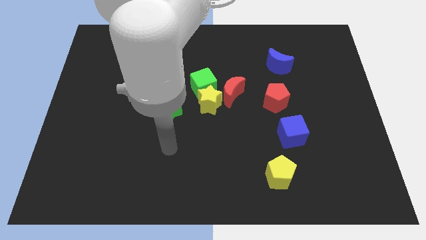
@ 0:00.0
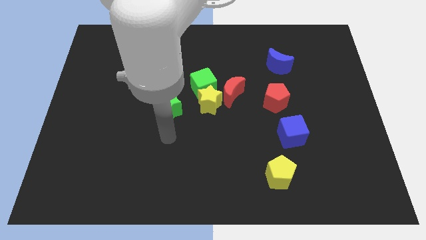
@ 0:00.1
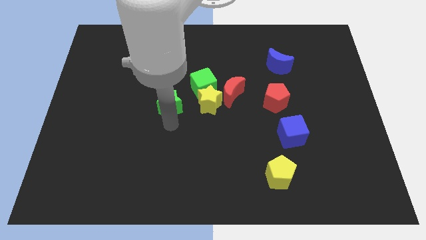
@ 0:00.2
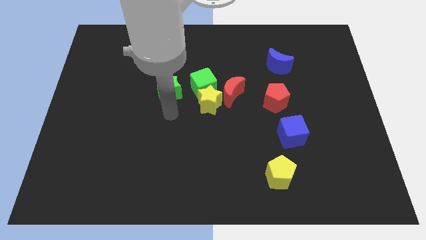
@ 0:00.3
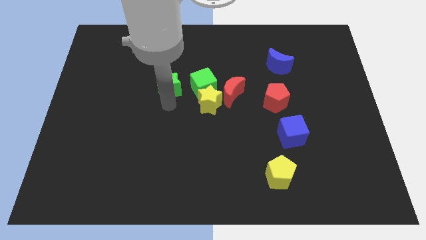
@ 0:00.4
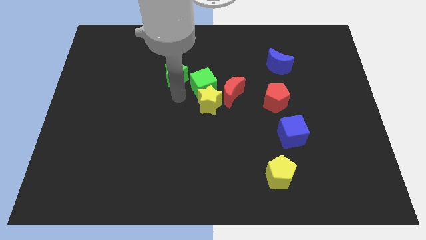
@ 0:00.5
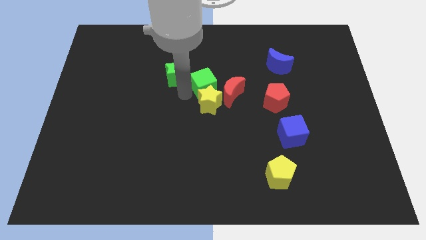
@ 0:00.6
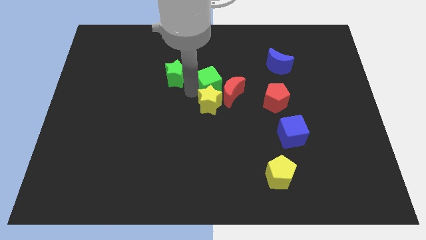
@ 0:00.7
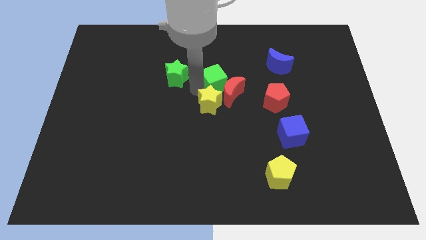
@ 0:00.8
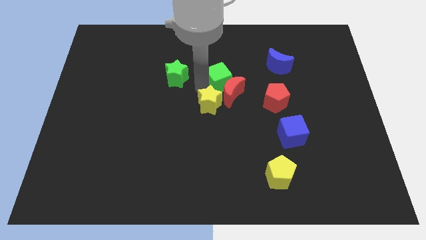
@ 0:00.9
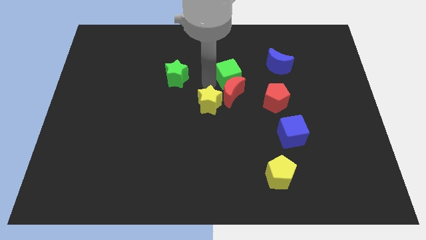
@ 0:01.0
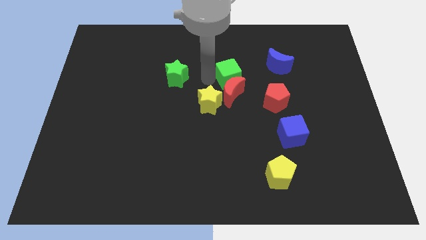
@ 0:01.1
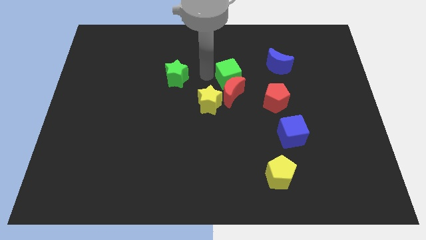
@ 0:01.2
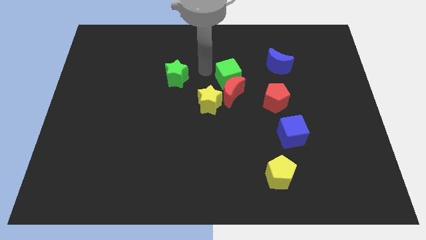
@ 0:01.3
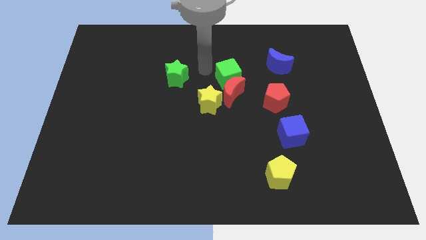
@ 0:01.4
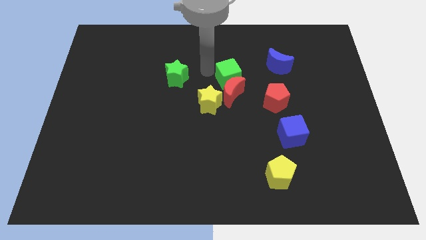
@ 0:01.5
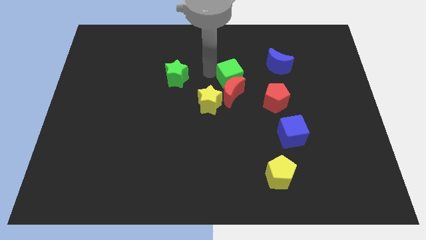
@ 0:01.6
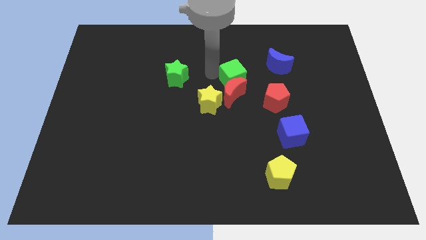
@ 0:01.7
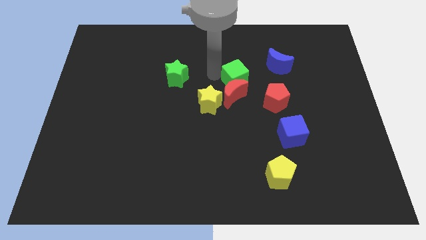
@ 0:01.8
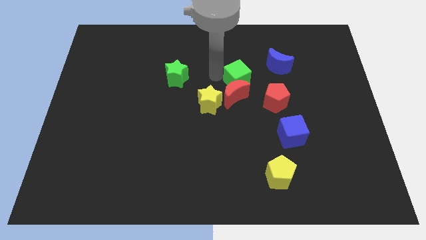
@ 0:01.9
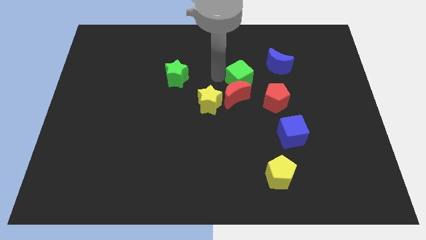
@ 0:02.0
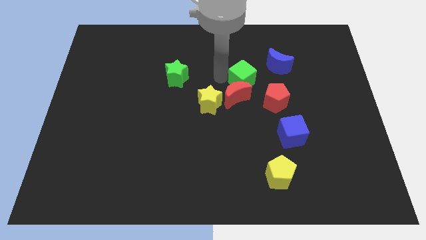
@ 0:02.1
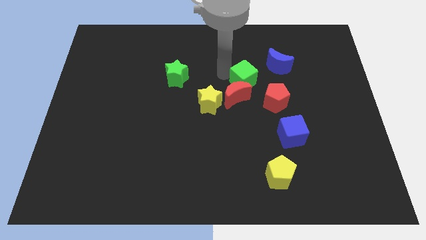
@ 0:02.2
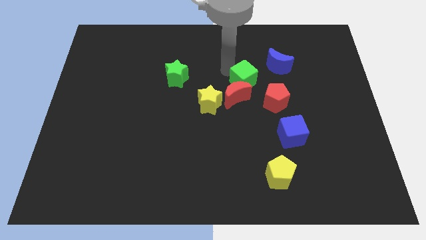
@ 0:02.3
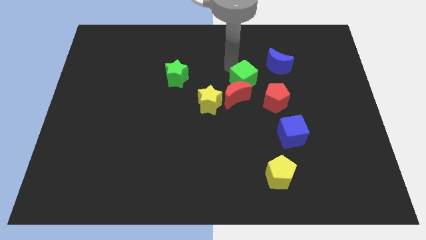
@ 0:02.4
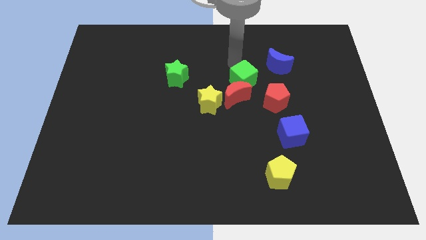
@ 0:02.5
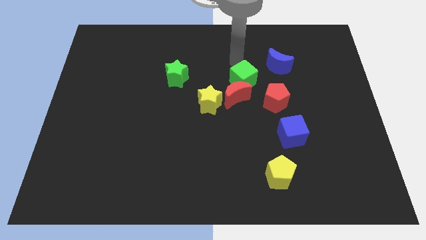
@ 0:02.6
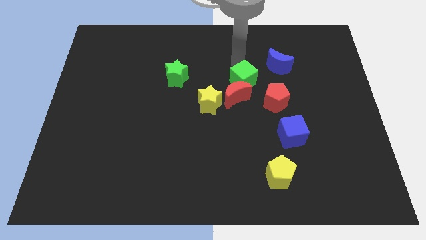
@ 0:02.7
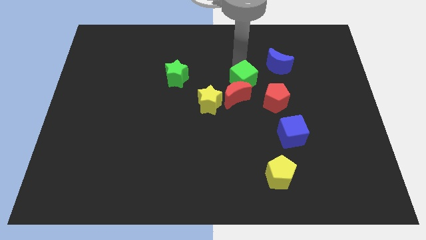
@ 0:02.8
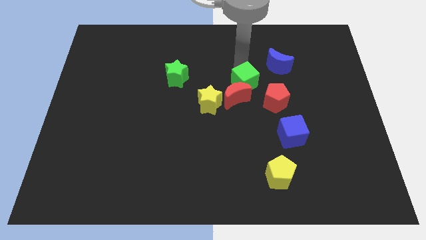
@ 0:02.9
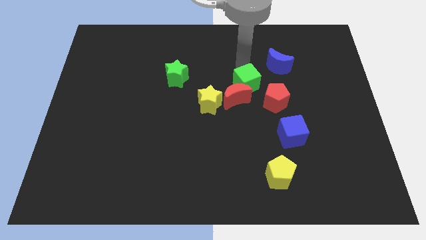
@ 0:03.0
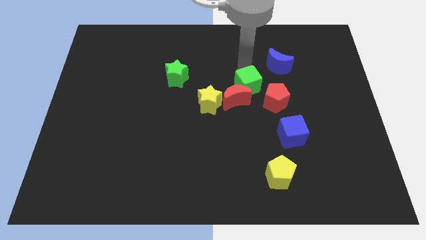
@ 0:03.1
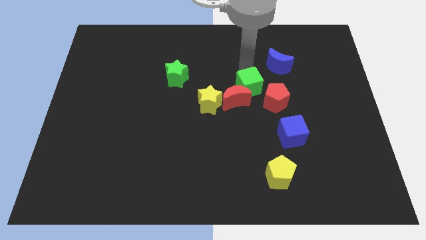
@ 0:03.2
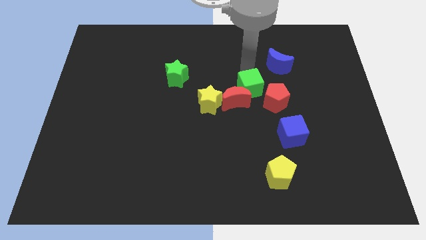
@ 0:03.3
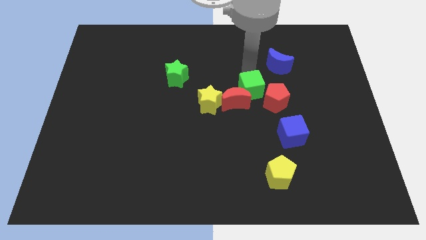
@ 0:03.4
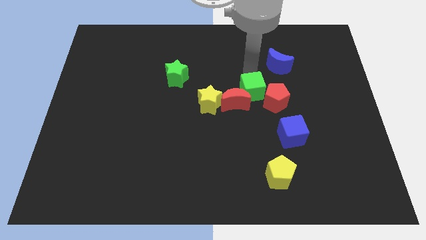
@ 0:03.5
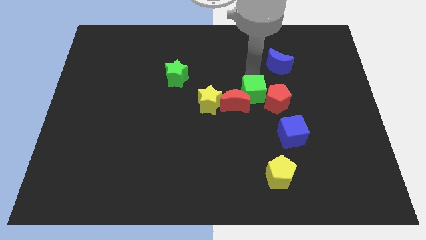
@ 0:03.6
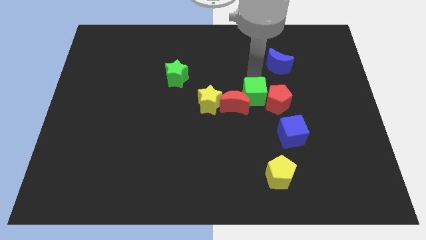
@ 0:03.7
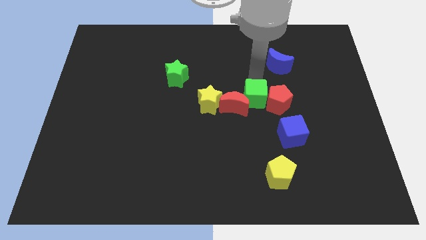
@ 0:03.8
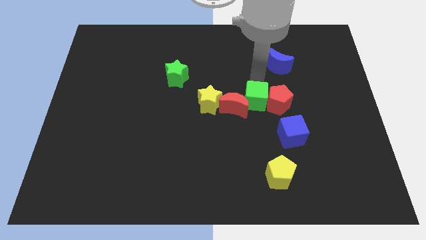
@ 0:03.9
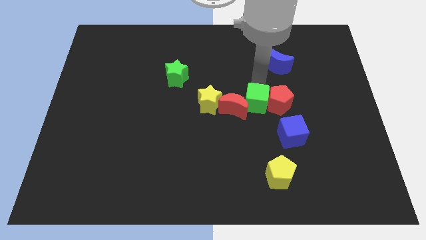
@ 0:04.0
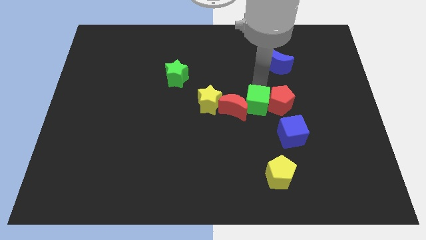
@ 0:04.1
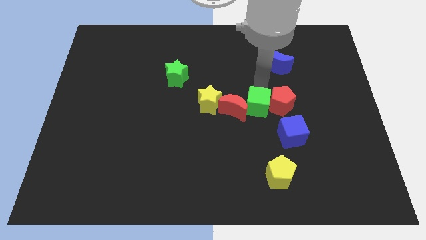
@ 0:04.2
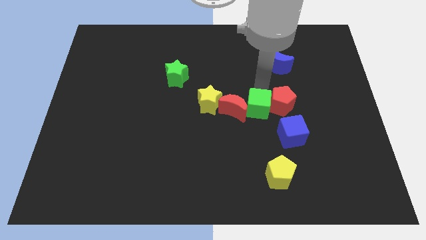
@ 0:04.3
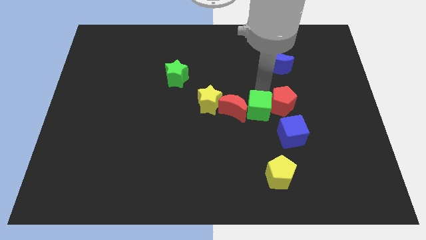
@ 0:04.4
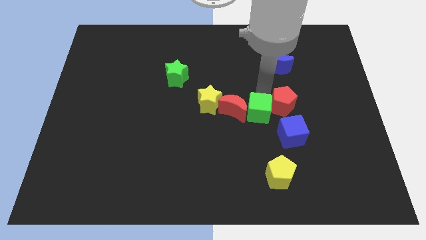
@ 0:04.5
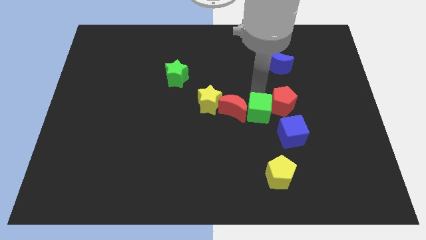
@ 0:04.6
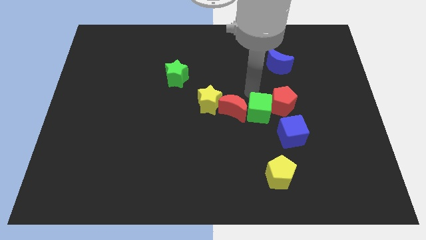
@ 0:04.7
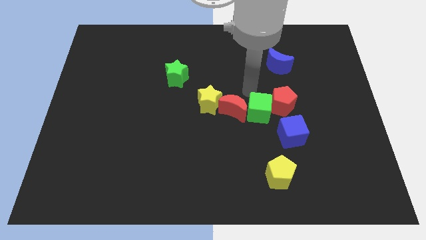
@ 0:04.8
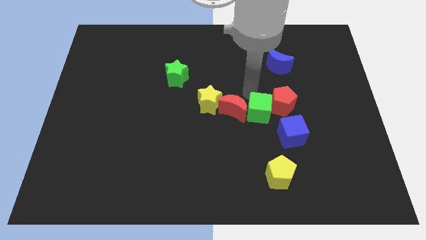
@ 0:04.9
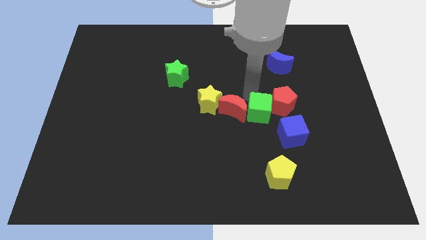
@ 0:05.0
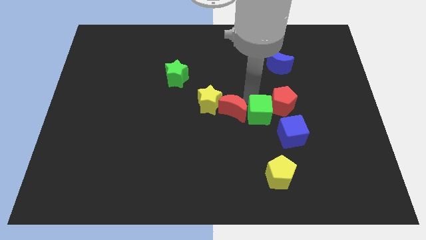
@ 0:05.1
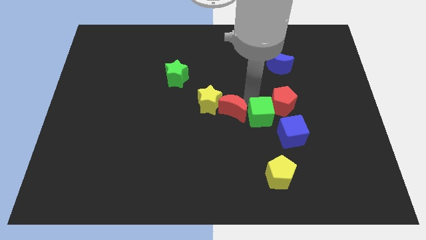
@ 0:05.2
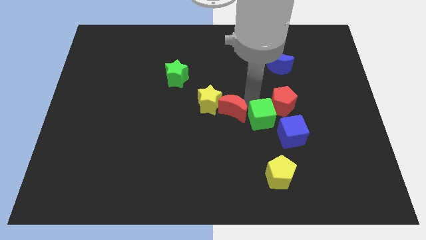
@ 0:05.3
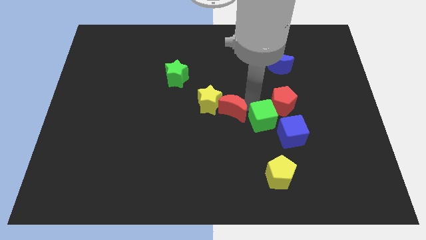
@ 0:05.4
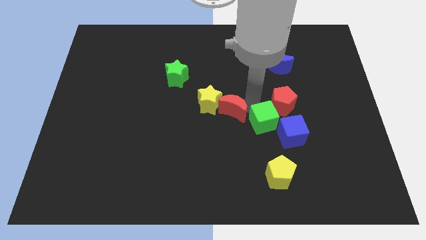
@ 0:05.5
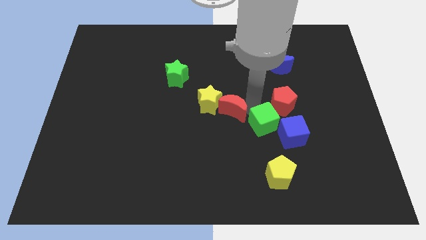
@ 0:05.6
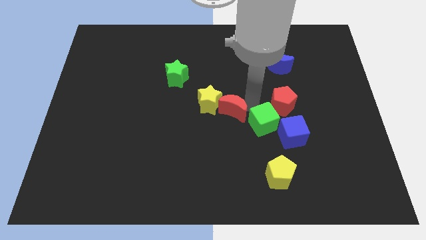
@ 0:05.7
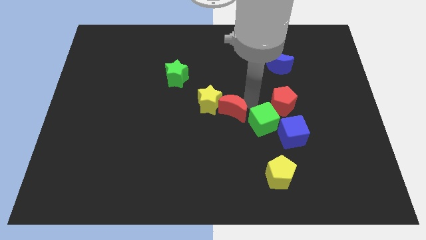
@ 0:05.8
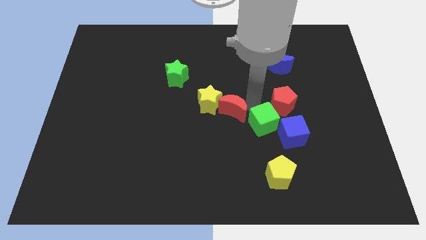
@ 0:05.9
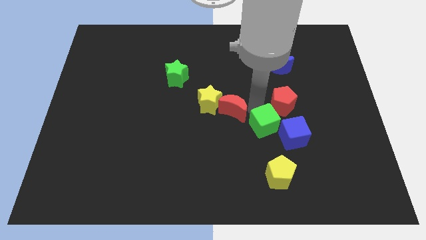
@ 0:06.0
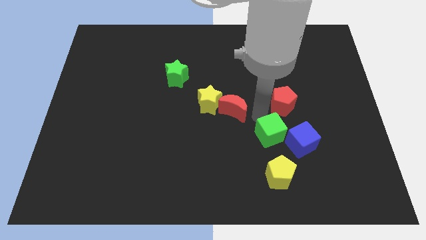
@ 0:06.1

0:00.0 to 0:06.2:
move the green cube downwards and right diagonally

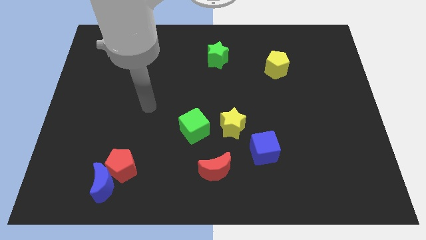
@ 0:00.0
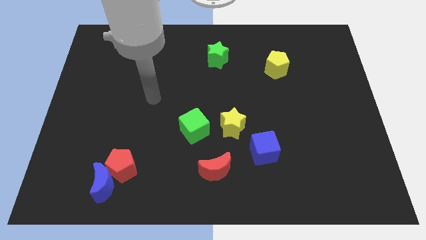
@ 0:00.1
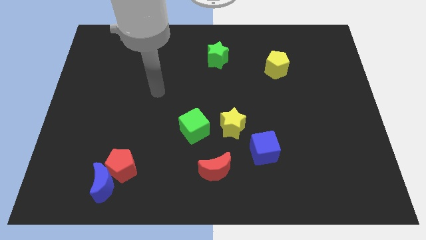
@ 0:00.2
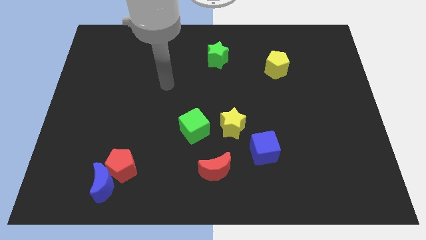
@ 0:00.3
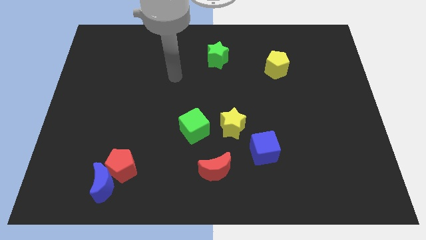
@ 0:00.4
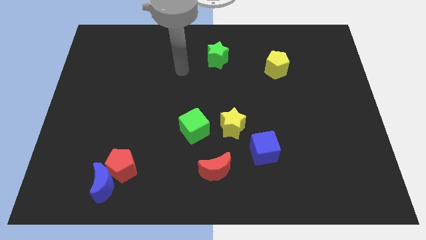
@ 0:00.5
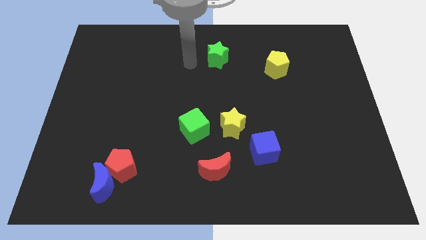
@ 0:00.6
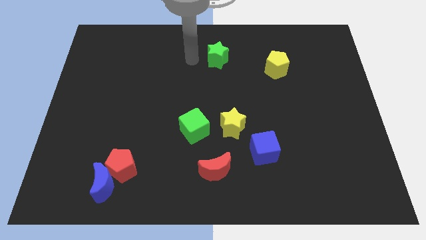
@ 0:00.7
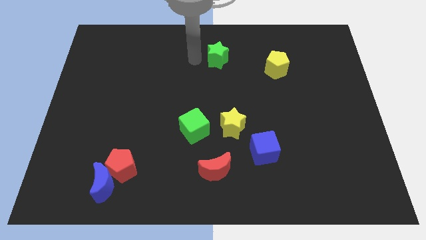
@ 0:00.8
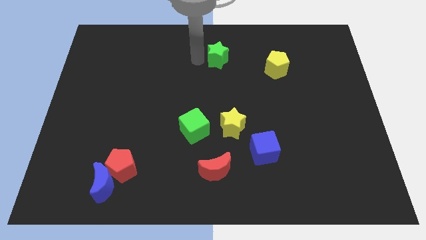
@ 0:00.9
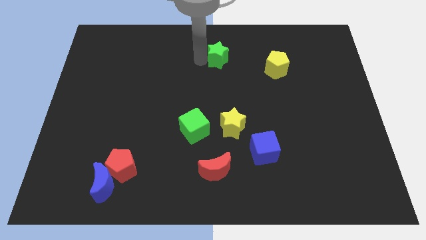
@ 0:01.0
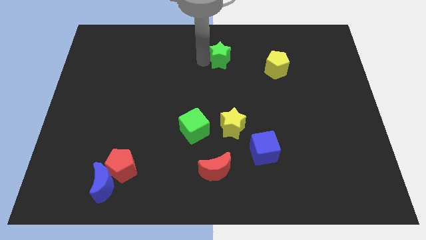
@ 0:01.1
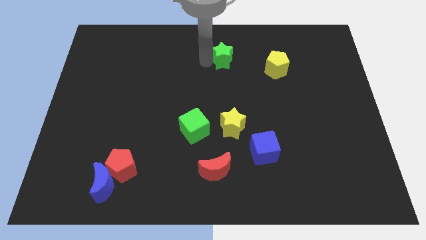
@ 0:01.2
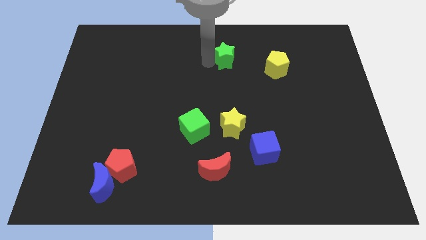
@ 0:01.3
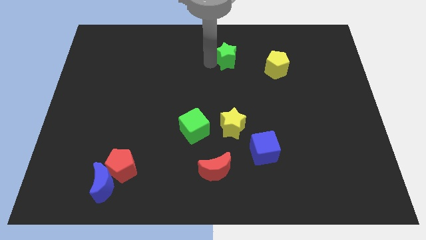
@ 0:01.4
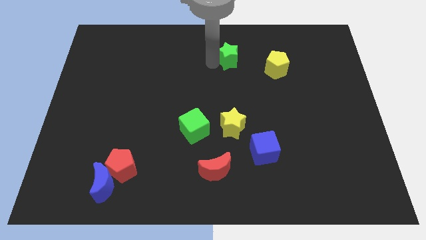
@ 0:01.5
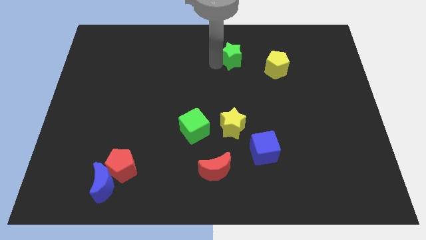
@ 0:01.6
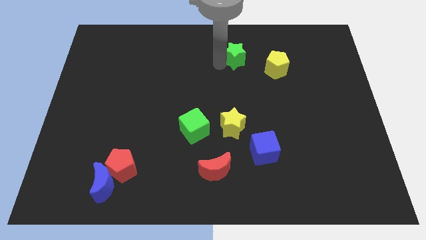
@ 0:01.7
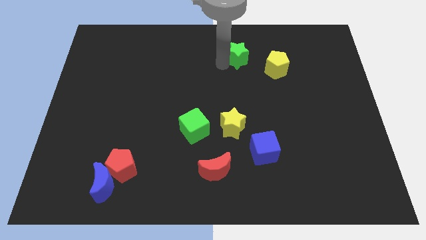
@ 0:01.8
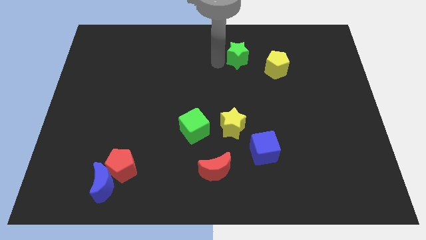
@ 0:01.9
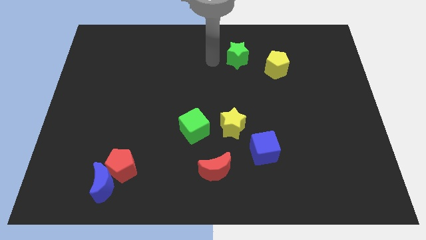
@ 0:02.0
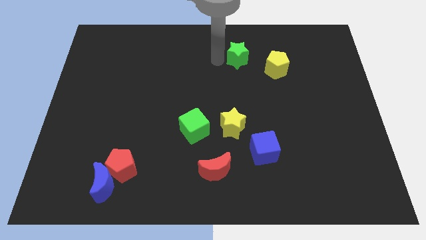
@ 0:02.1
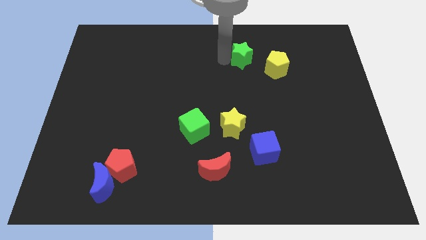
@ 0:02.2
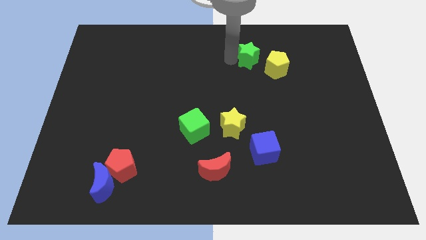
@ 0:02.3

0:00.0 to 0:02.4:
slightly slide the green star right
